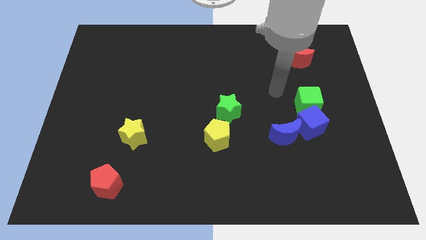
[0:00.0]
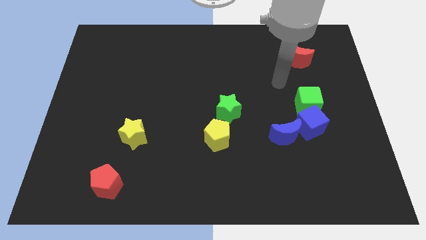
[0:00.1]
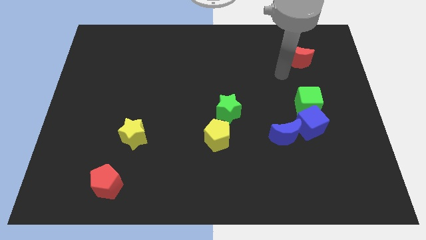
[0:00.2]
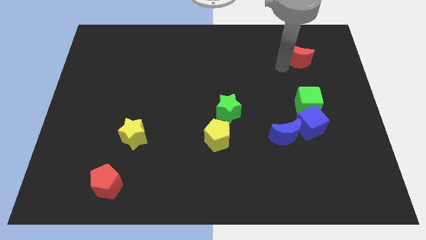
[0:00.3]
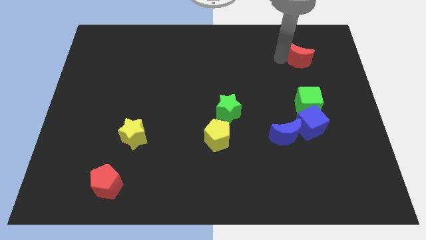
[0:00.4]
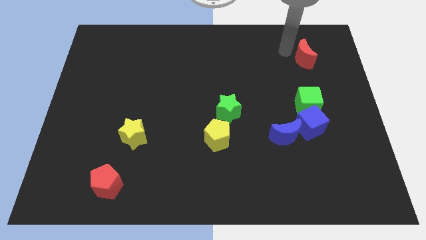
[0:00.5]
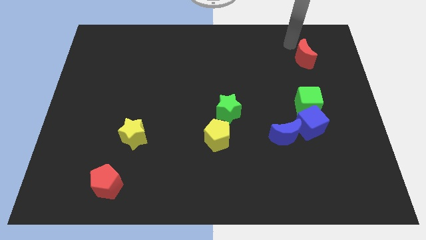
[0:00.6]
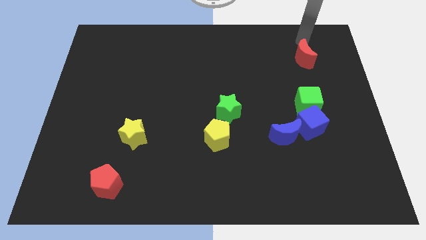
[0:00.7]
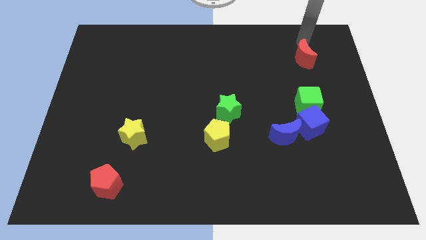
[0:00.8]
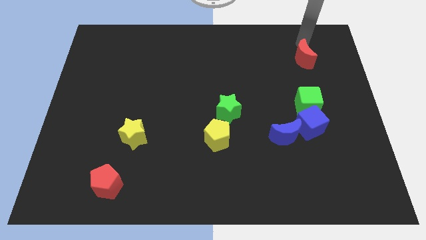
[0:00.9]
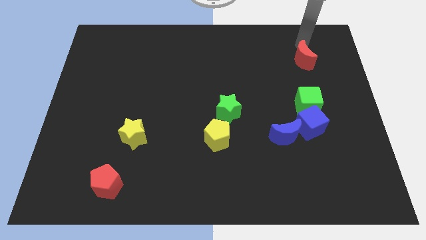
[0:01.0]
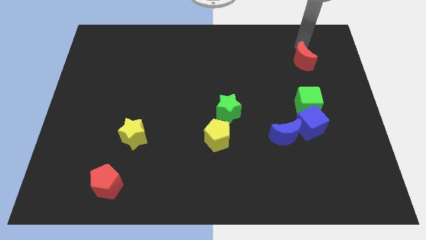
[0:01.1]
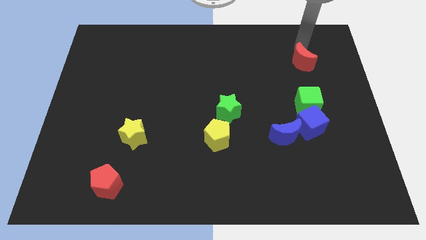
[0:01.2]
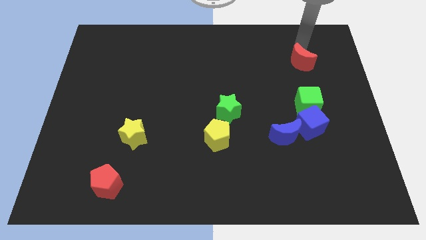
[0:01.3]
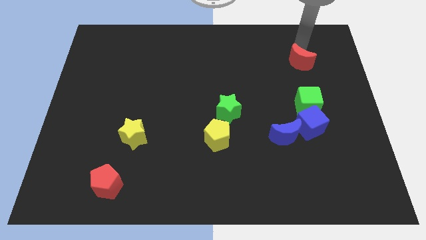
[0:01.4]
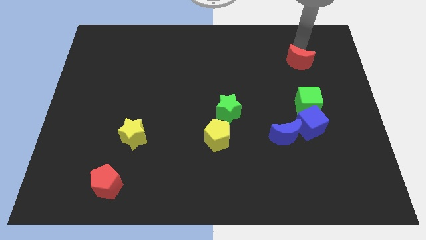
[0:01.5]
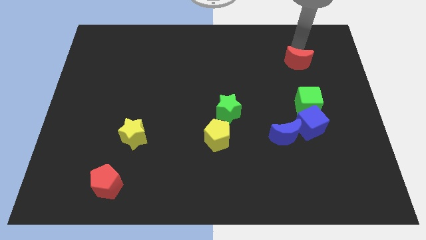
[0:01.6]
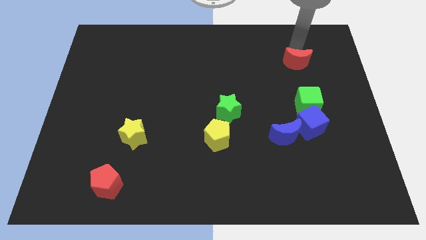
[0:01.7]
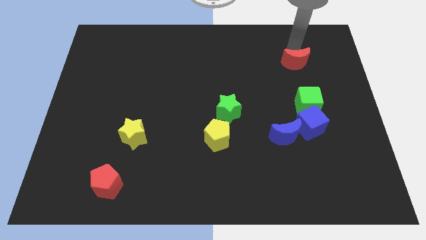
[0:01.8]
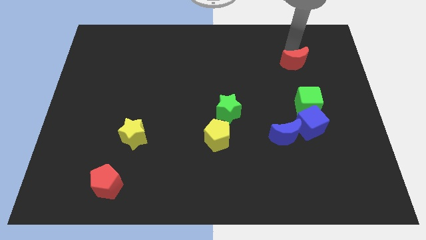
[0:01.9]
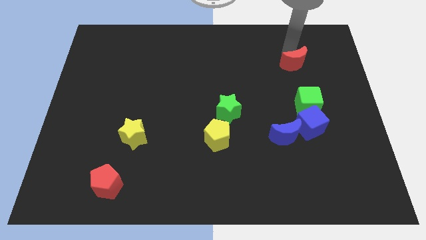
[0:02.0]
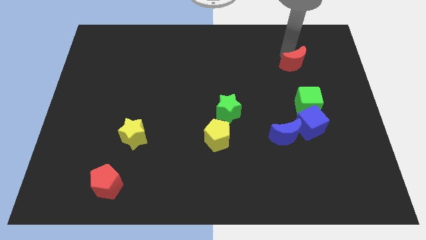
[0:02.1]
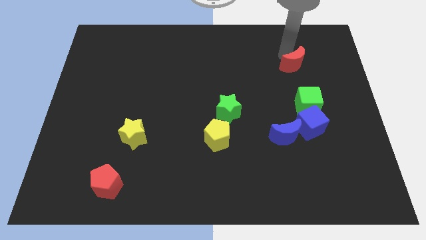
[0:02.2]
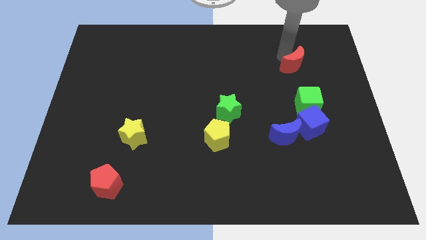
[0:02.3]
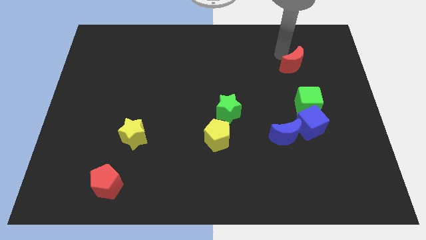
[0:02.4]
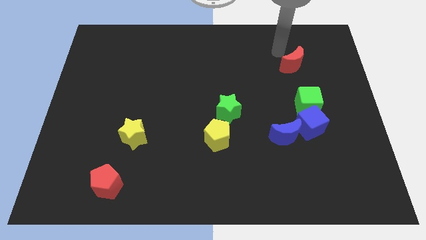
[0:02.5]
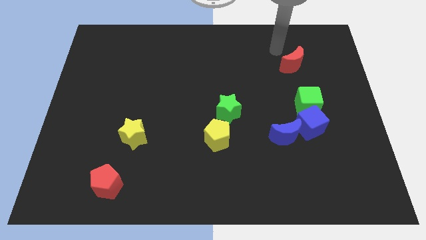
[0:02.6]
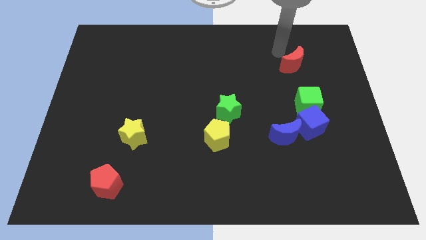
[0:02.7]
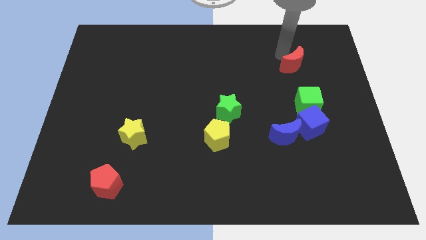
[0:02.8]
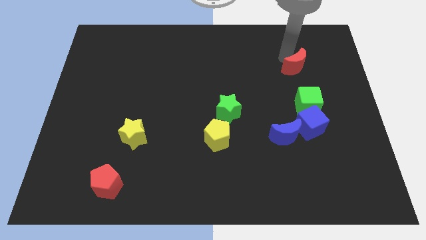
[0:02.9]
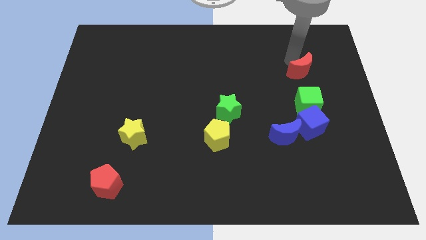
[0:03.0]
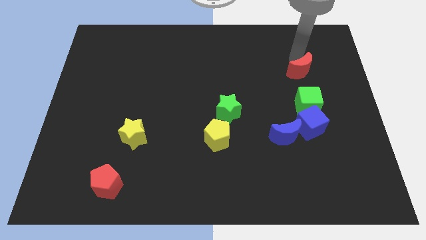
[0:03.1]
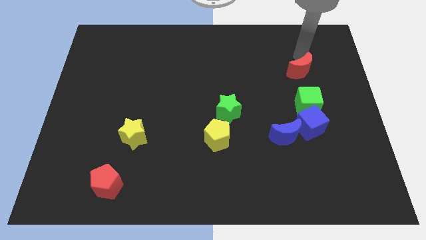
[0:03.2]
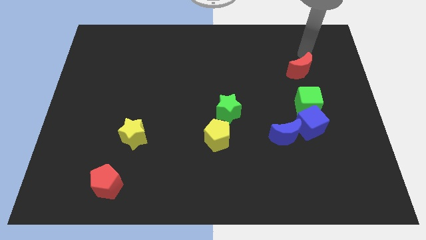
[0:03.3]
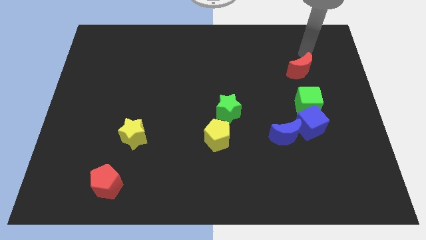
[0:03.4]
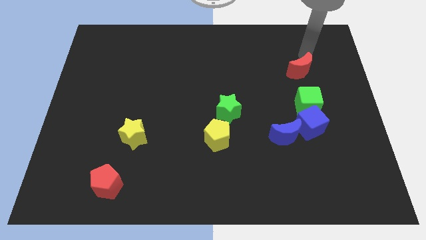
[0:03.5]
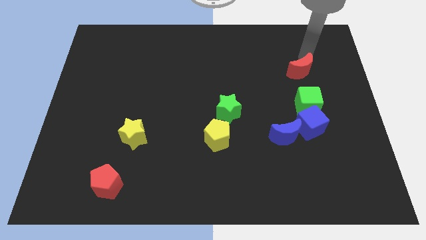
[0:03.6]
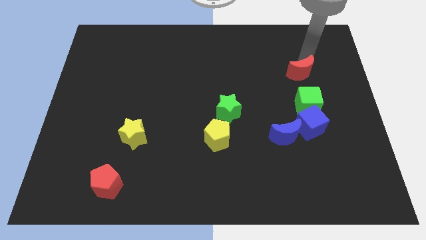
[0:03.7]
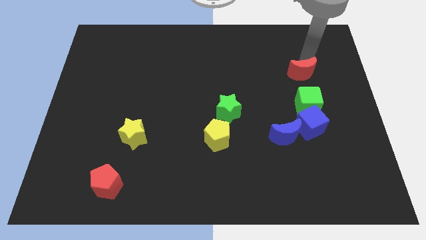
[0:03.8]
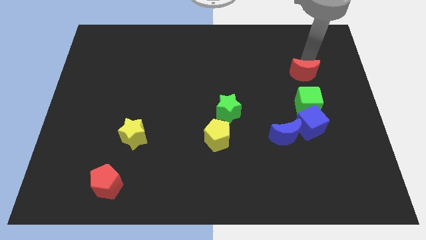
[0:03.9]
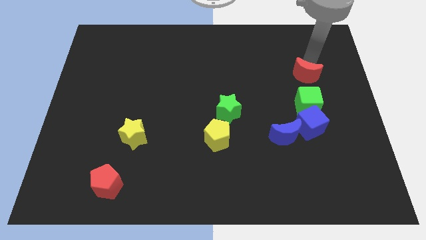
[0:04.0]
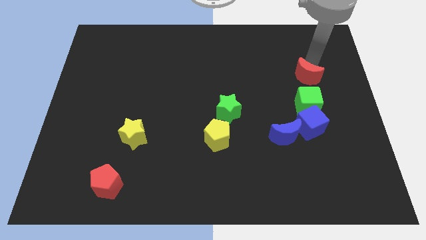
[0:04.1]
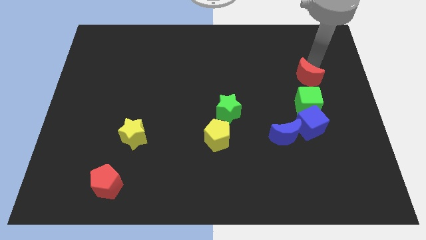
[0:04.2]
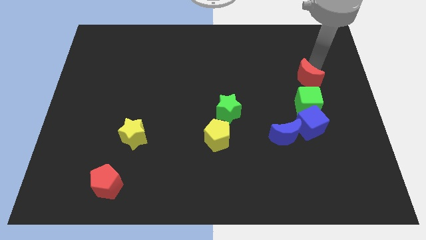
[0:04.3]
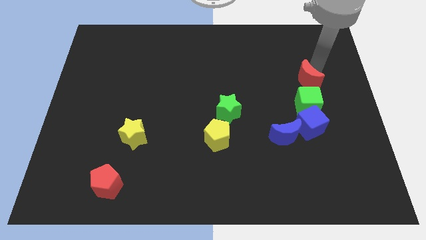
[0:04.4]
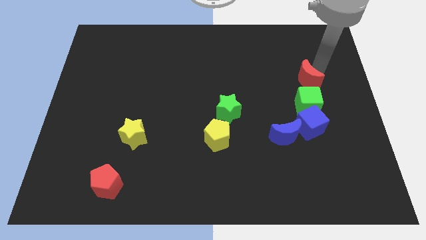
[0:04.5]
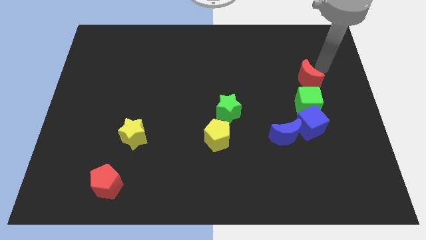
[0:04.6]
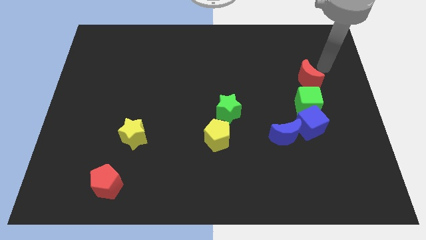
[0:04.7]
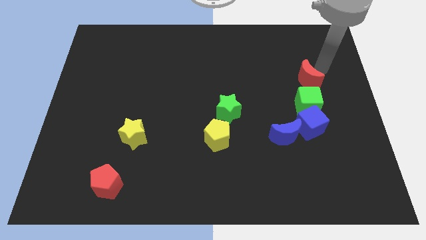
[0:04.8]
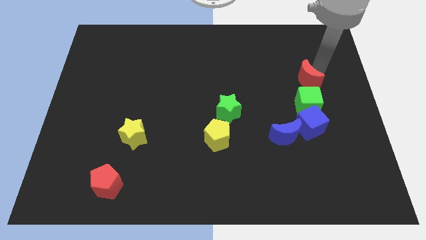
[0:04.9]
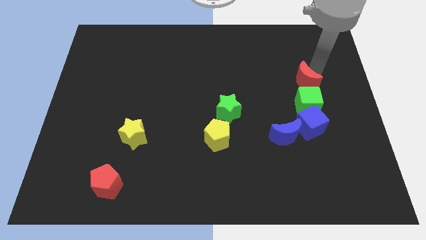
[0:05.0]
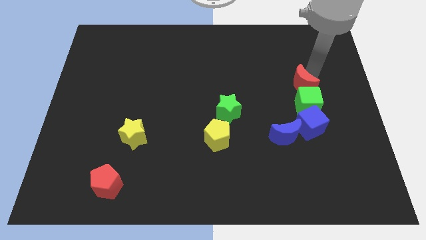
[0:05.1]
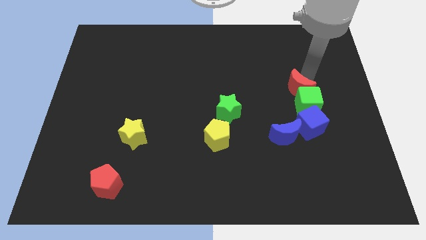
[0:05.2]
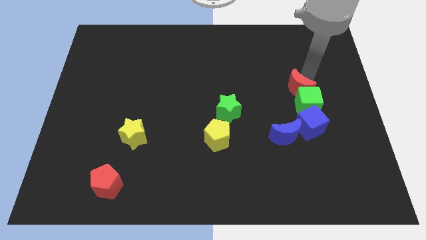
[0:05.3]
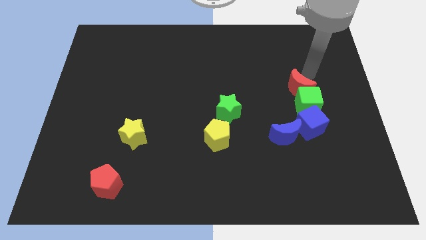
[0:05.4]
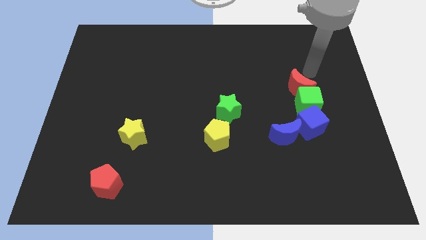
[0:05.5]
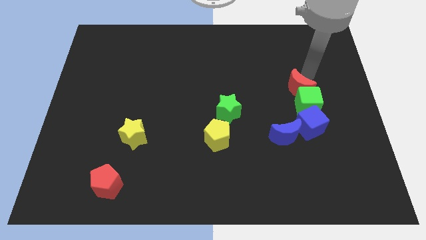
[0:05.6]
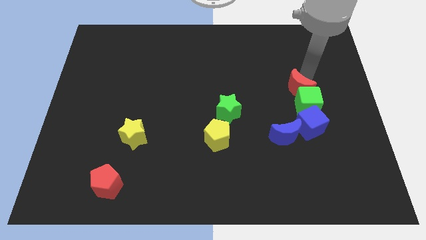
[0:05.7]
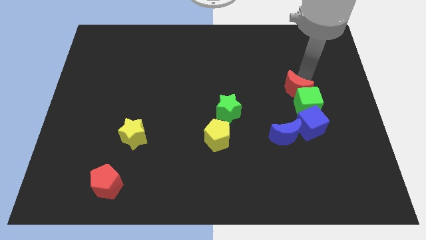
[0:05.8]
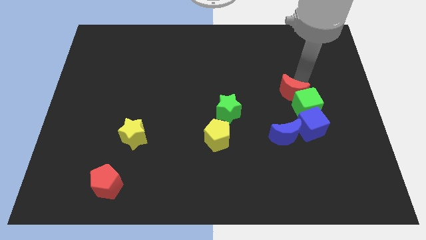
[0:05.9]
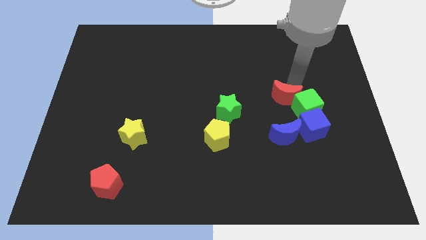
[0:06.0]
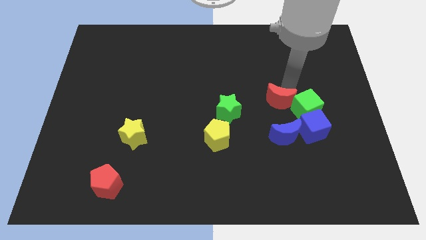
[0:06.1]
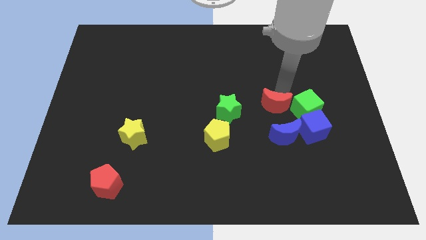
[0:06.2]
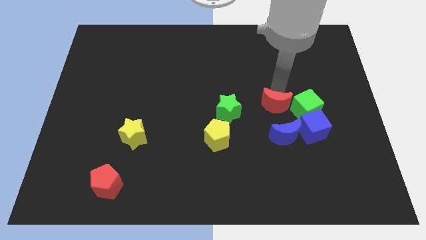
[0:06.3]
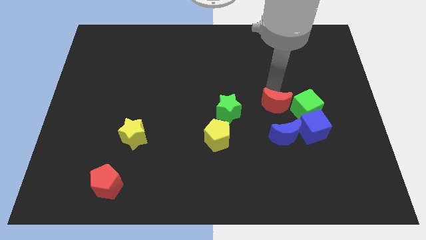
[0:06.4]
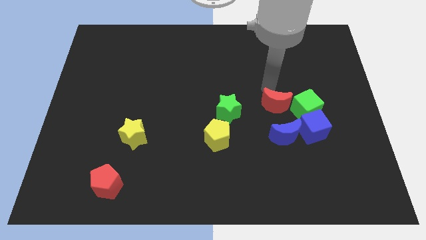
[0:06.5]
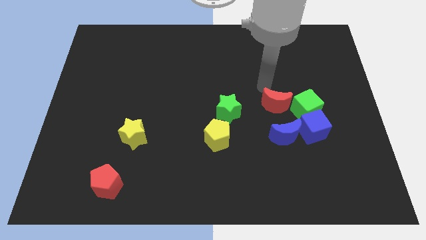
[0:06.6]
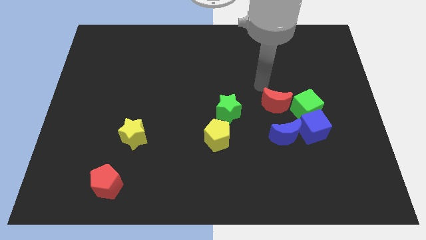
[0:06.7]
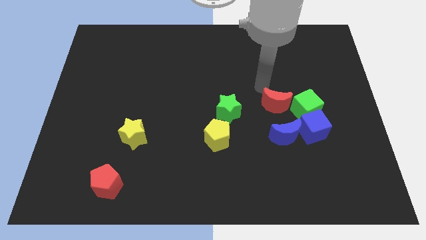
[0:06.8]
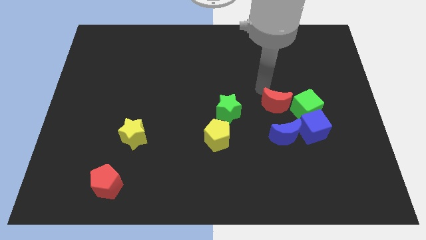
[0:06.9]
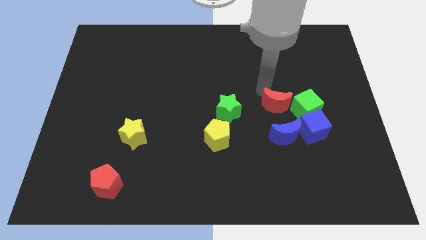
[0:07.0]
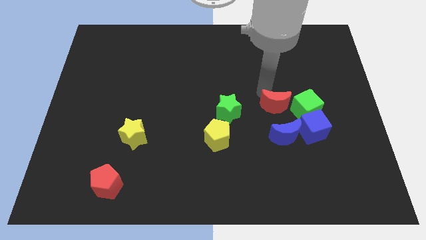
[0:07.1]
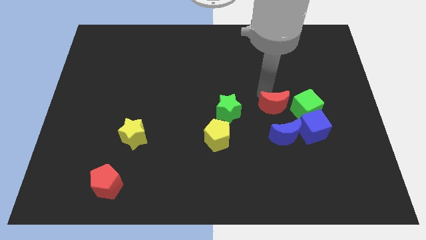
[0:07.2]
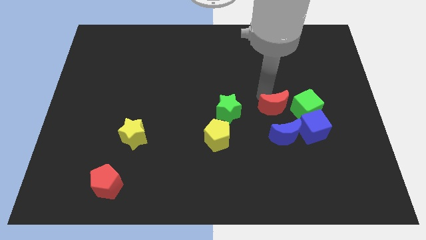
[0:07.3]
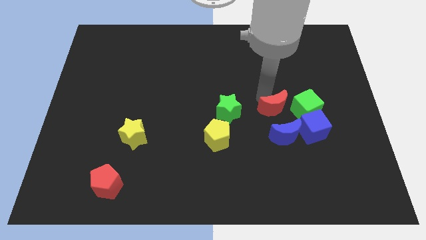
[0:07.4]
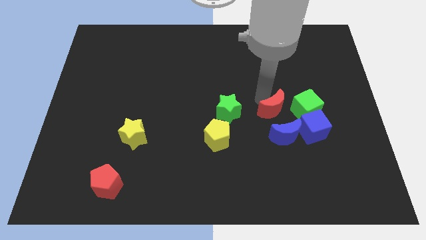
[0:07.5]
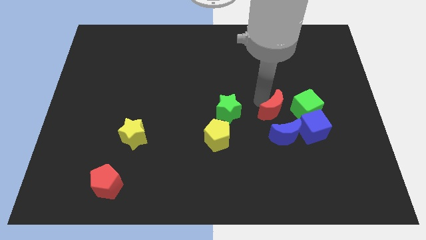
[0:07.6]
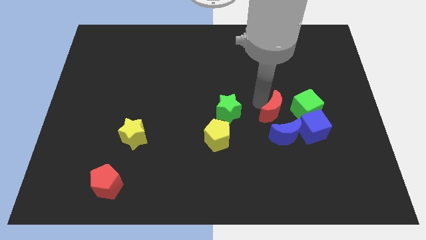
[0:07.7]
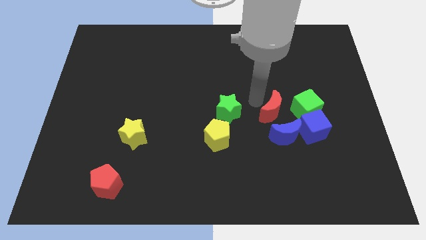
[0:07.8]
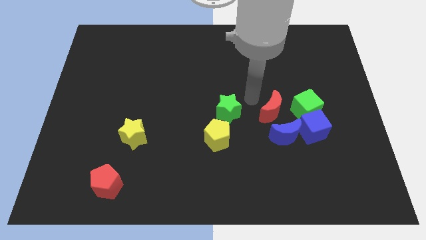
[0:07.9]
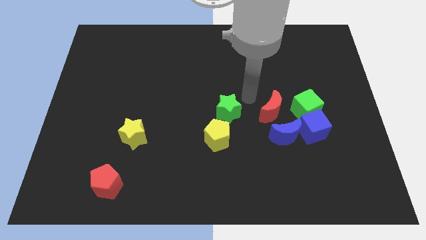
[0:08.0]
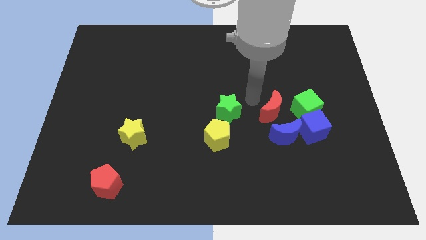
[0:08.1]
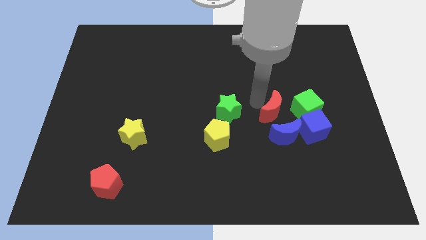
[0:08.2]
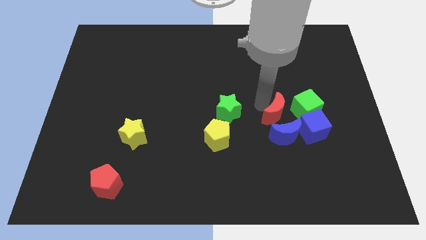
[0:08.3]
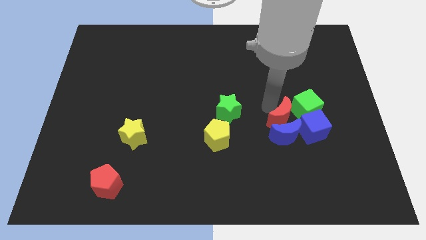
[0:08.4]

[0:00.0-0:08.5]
push the red moon close to the blue moon

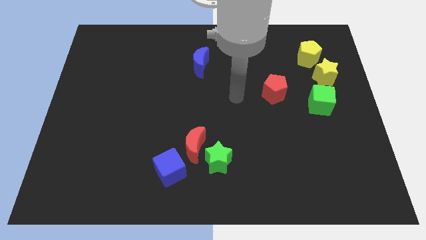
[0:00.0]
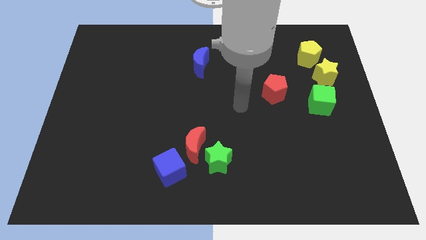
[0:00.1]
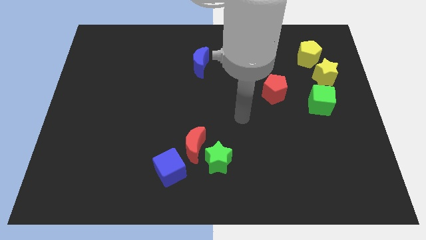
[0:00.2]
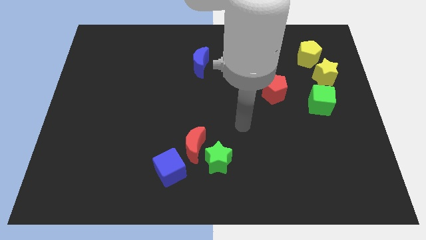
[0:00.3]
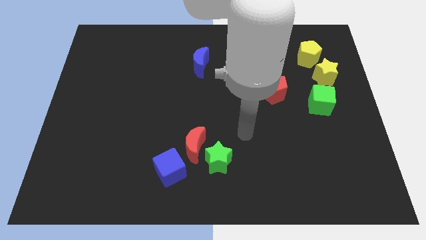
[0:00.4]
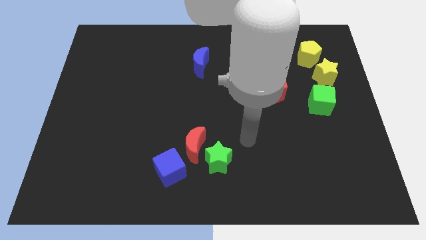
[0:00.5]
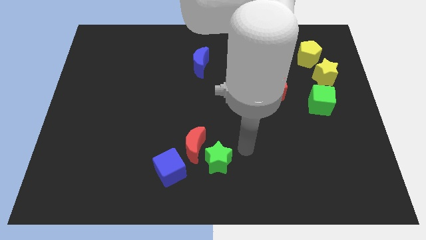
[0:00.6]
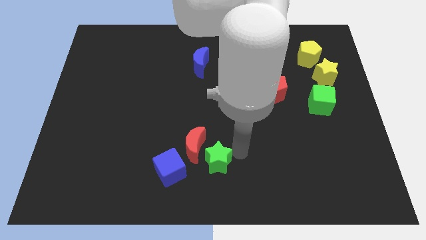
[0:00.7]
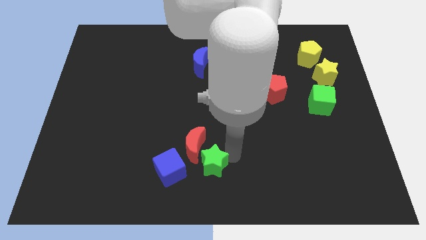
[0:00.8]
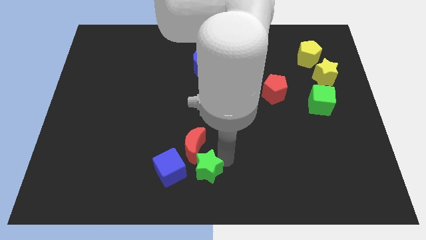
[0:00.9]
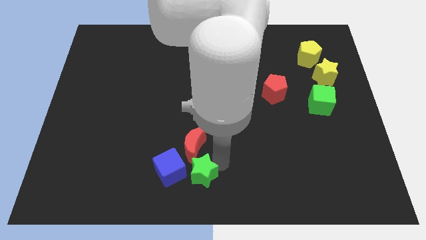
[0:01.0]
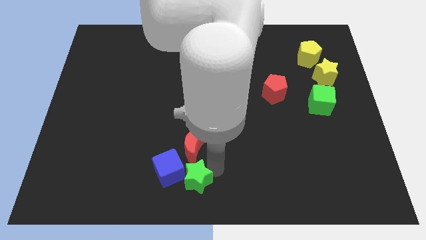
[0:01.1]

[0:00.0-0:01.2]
move the green star towards the blue cube
